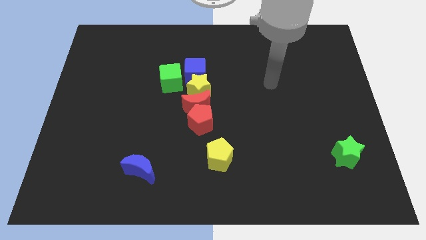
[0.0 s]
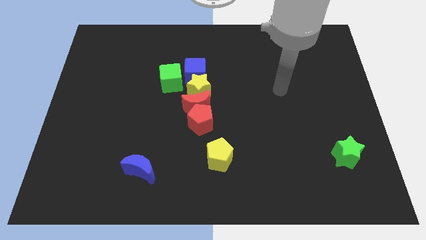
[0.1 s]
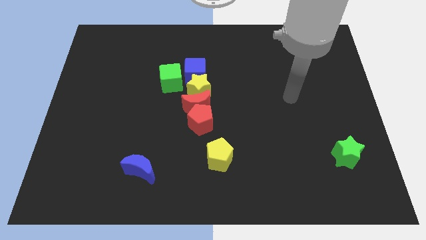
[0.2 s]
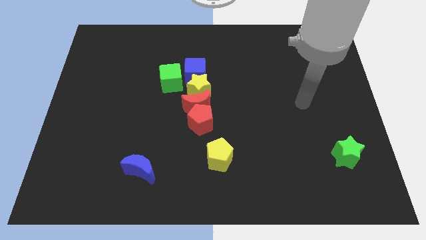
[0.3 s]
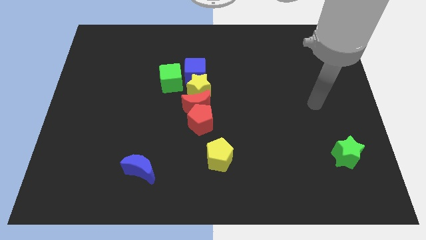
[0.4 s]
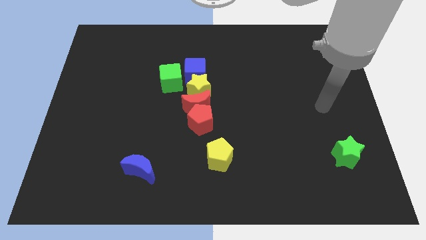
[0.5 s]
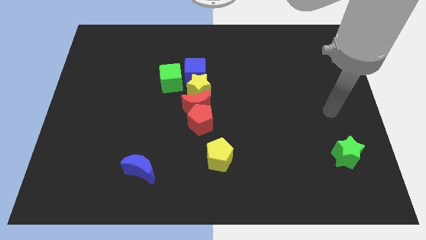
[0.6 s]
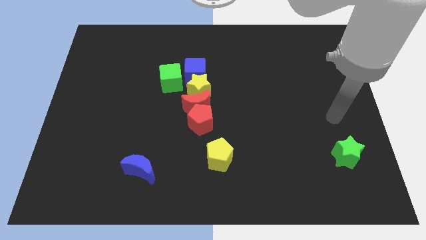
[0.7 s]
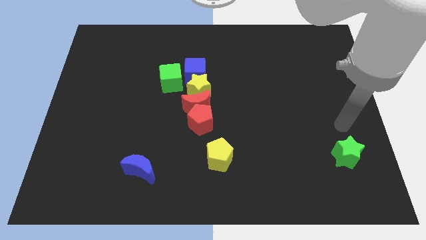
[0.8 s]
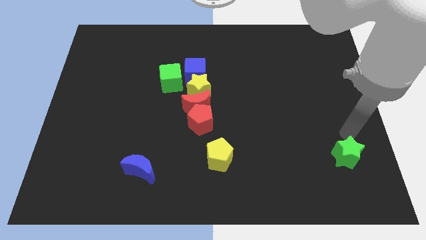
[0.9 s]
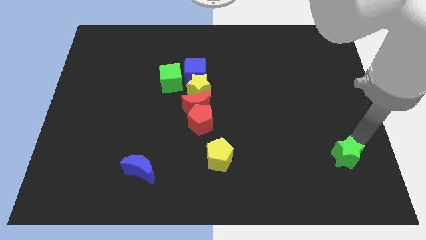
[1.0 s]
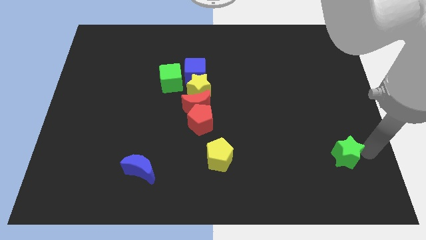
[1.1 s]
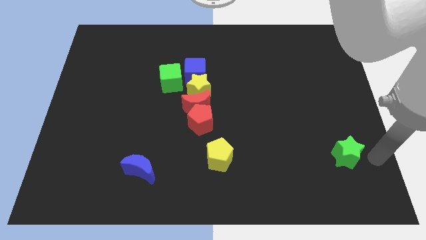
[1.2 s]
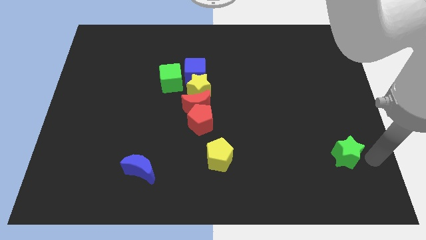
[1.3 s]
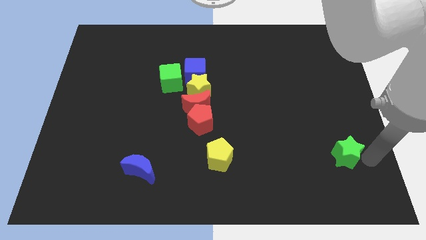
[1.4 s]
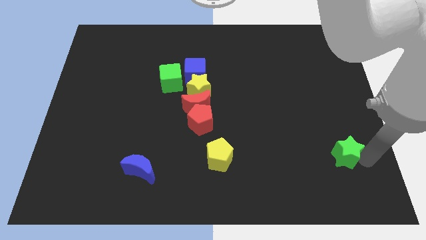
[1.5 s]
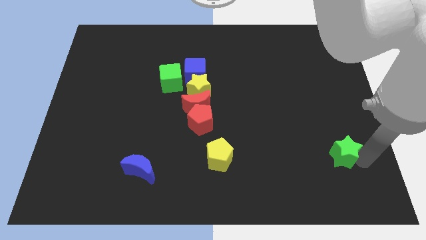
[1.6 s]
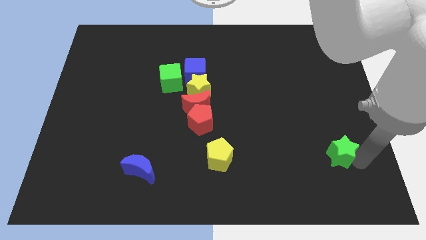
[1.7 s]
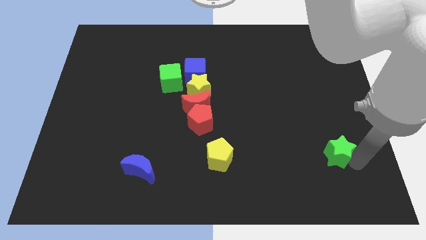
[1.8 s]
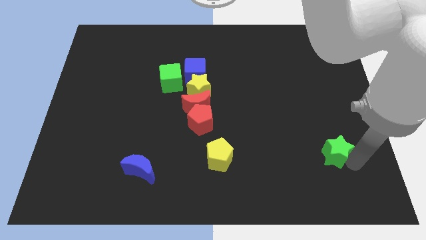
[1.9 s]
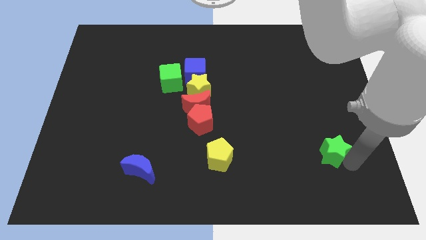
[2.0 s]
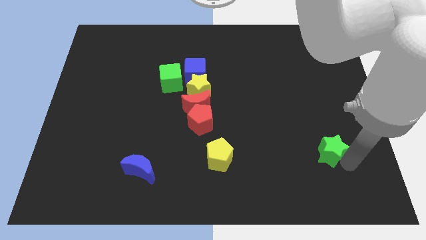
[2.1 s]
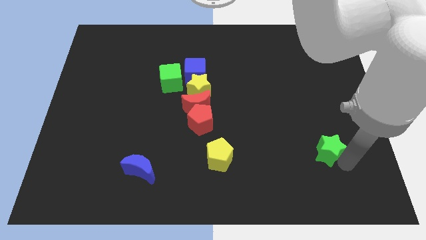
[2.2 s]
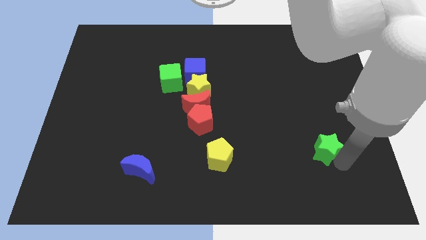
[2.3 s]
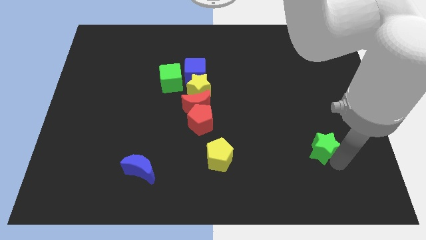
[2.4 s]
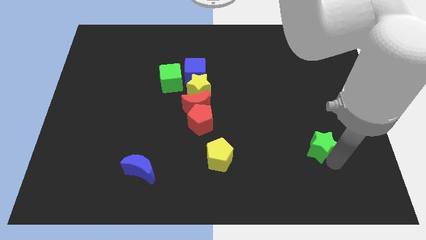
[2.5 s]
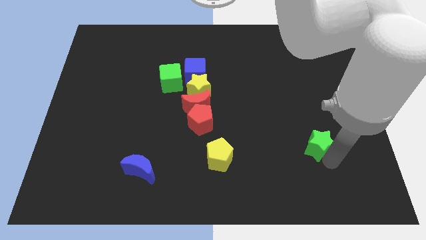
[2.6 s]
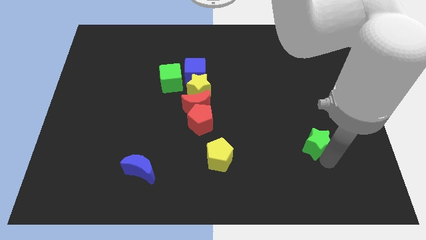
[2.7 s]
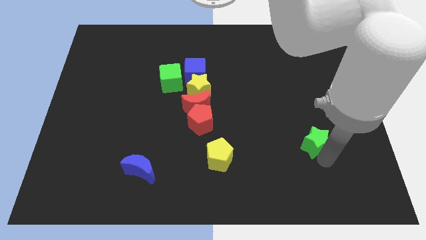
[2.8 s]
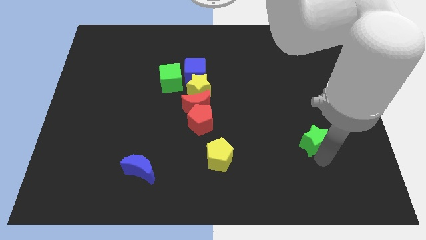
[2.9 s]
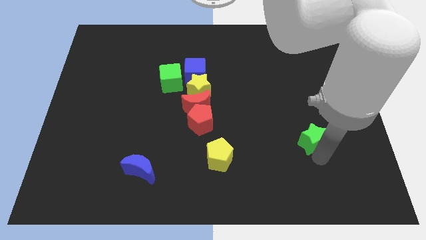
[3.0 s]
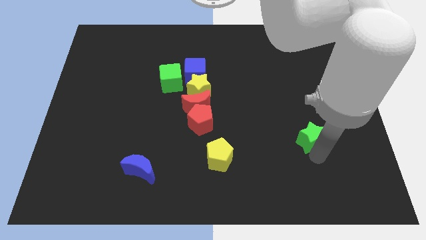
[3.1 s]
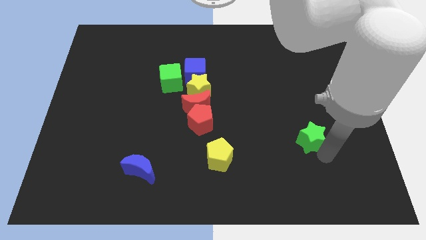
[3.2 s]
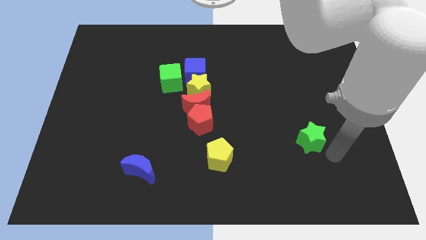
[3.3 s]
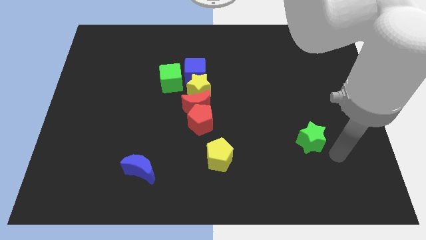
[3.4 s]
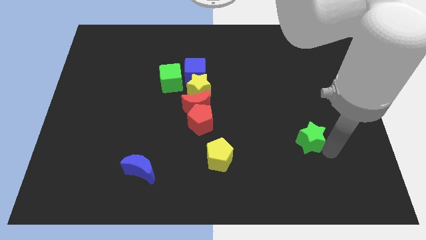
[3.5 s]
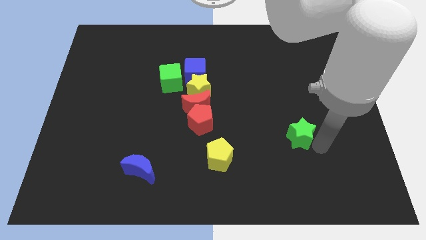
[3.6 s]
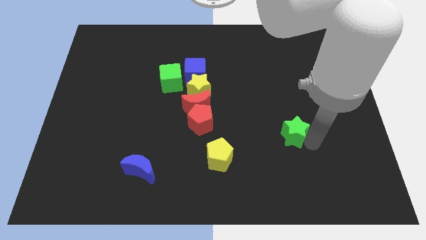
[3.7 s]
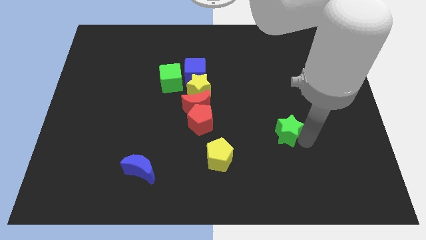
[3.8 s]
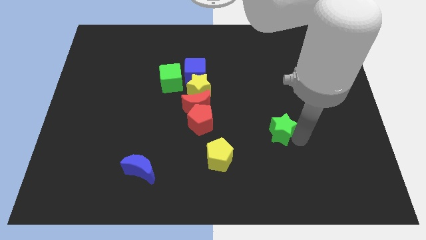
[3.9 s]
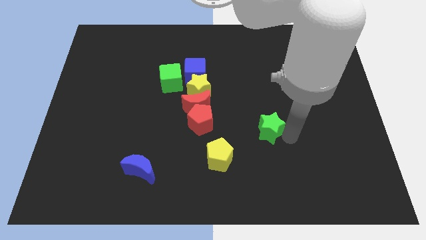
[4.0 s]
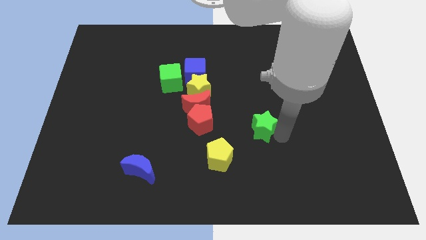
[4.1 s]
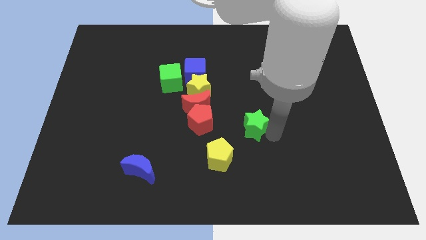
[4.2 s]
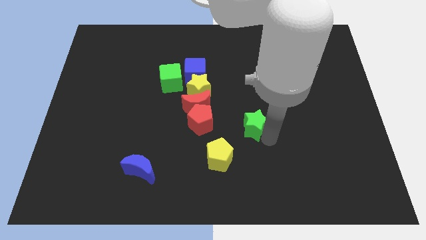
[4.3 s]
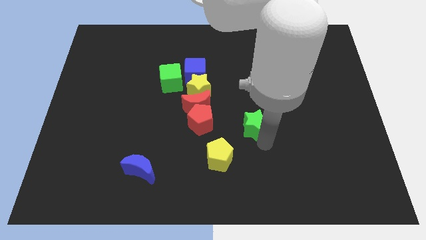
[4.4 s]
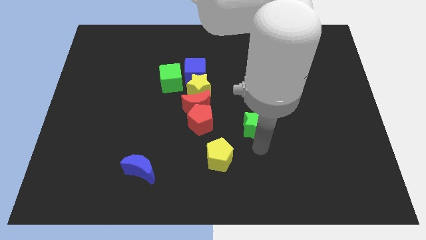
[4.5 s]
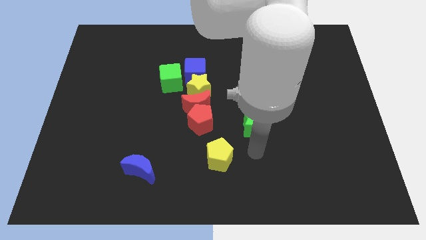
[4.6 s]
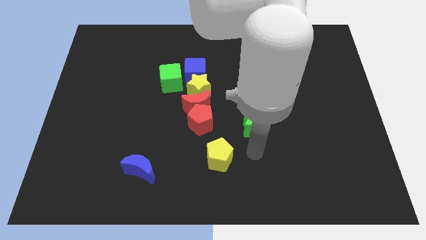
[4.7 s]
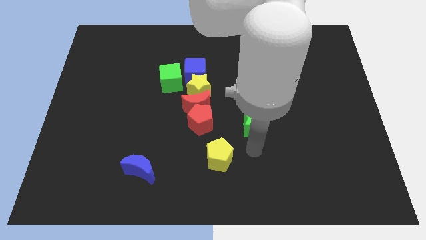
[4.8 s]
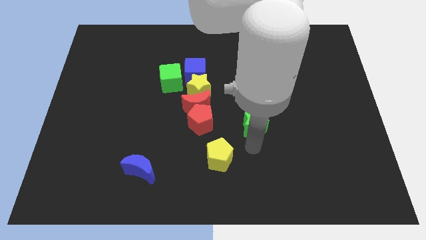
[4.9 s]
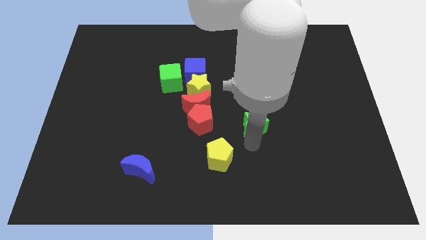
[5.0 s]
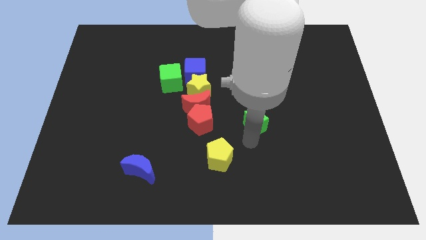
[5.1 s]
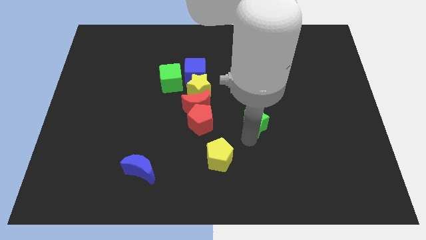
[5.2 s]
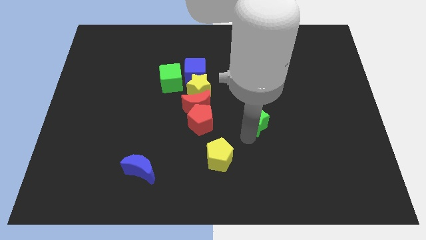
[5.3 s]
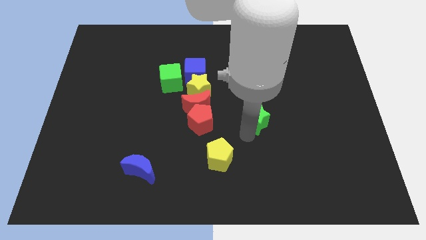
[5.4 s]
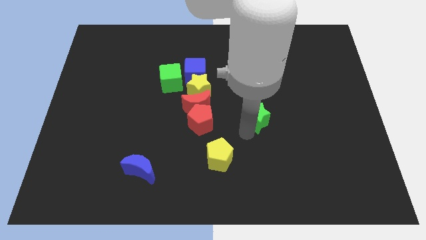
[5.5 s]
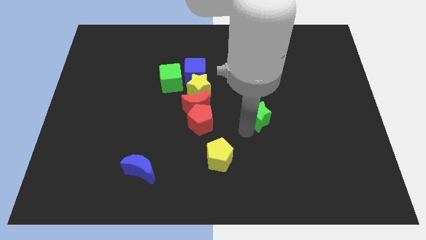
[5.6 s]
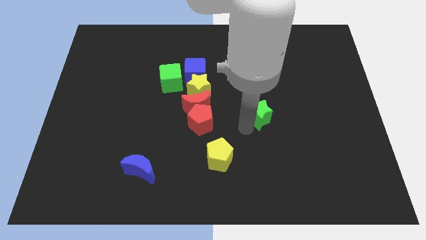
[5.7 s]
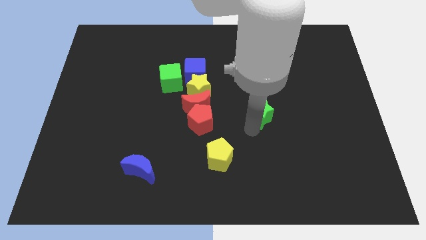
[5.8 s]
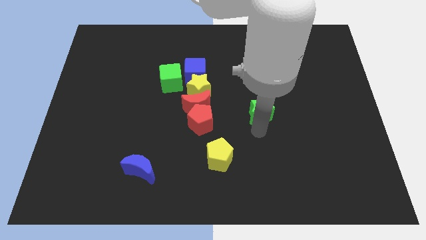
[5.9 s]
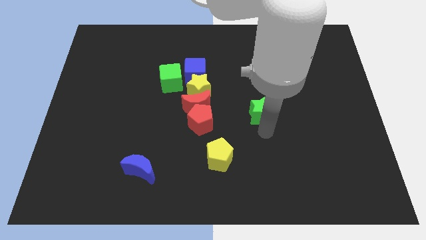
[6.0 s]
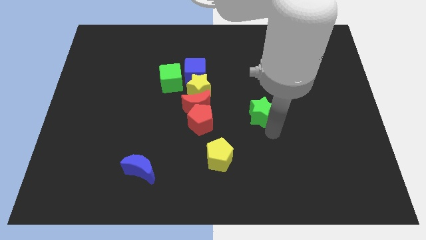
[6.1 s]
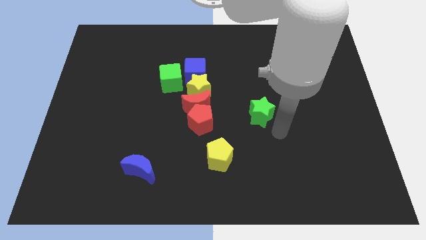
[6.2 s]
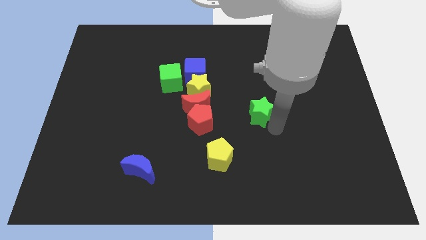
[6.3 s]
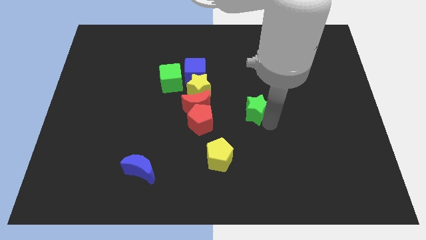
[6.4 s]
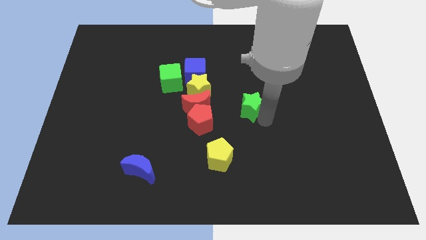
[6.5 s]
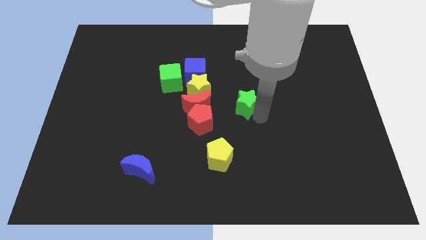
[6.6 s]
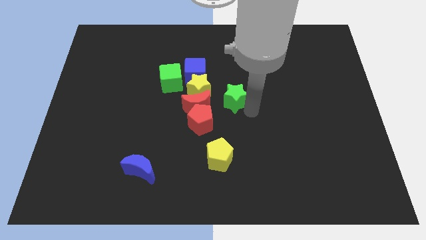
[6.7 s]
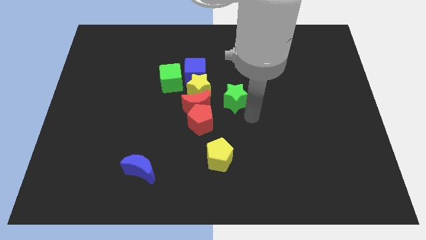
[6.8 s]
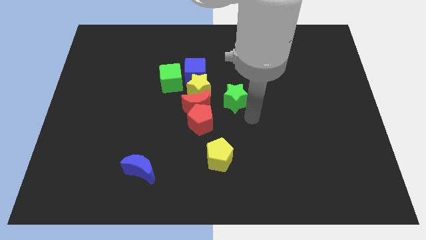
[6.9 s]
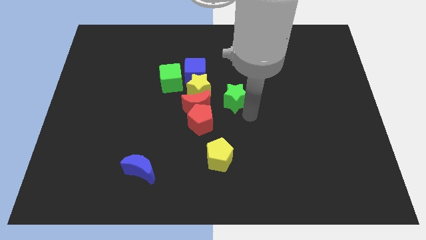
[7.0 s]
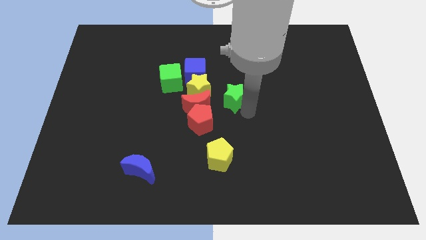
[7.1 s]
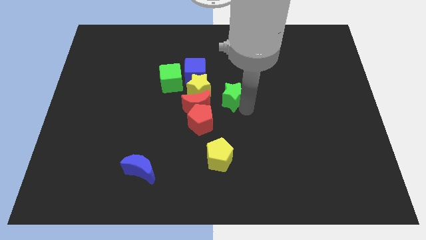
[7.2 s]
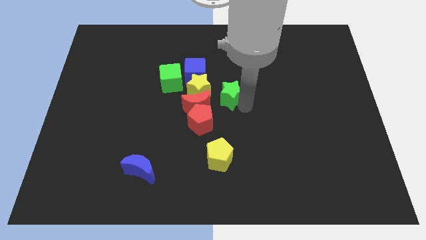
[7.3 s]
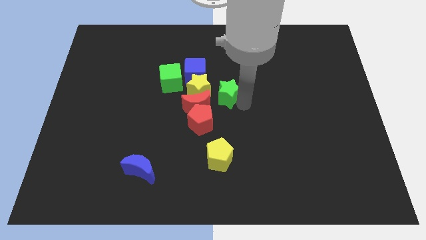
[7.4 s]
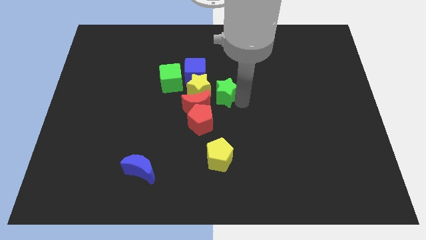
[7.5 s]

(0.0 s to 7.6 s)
move the green star to the right side of the green cube
